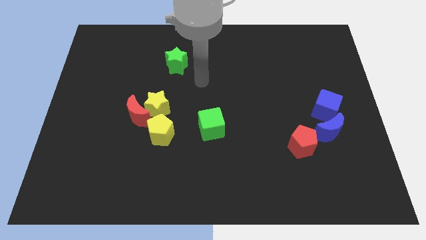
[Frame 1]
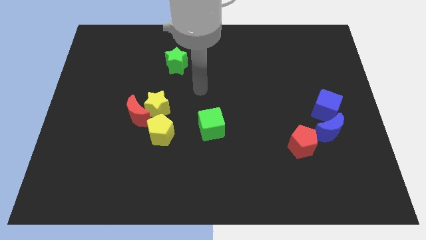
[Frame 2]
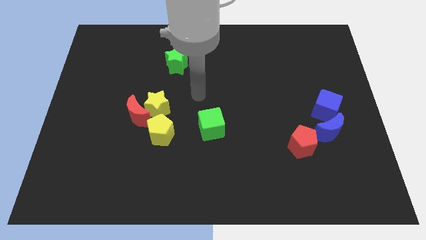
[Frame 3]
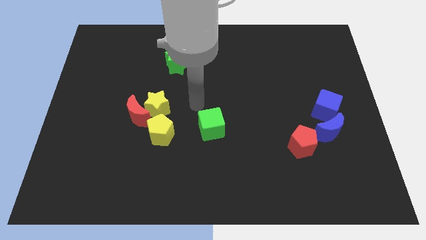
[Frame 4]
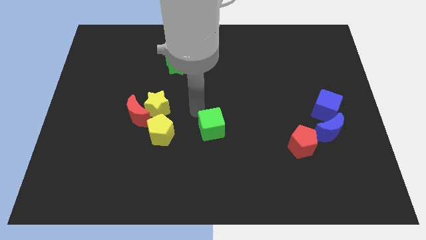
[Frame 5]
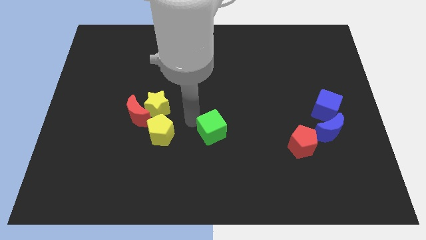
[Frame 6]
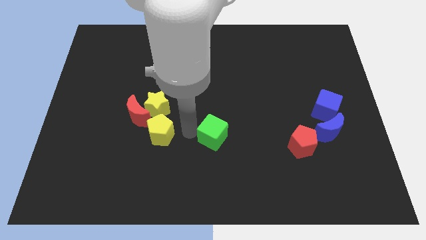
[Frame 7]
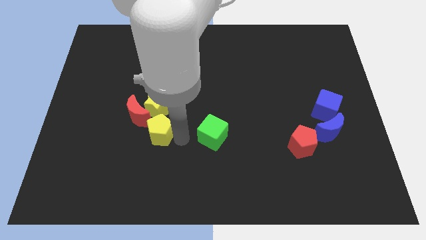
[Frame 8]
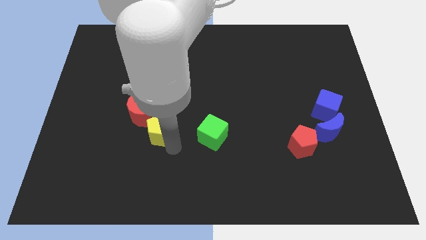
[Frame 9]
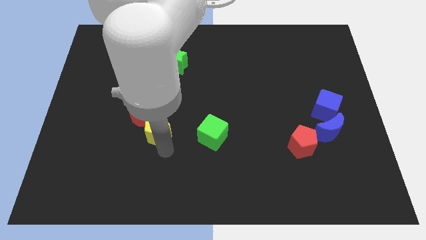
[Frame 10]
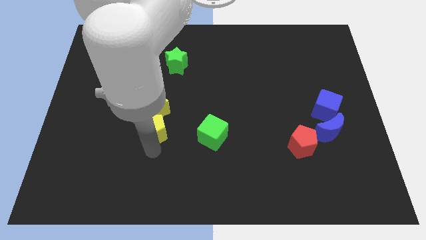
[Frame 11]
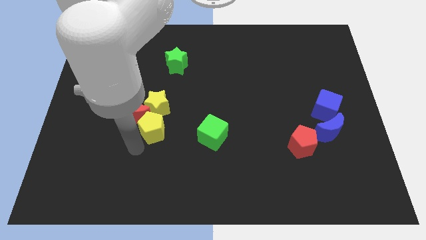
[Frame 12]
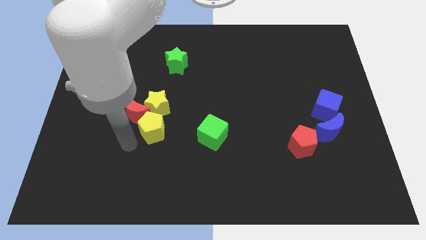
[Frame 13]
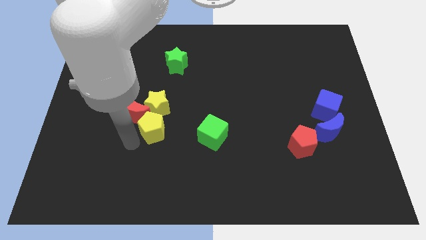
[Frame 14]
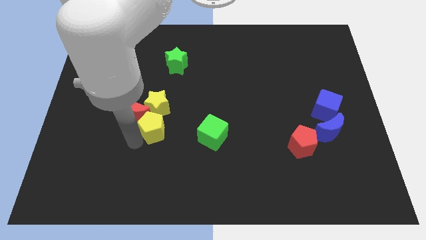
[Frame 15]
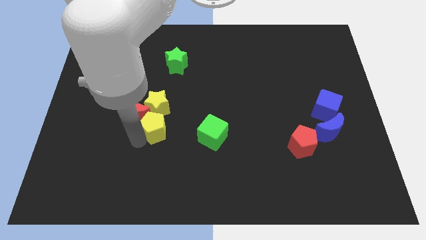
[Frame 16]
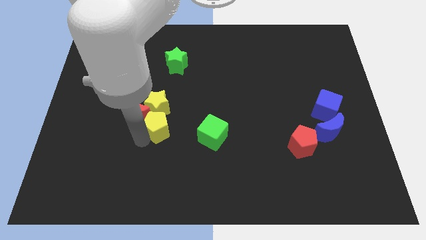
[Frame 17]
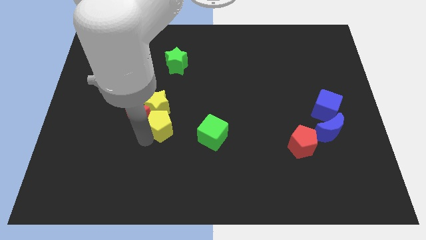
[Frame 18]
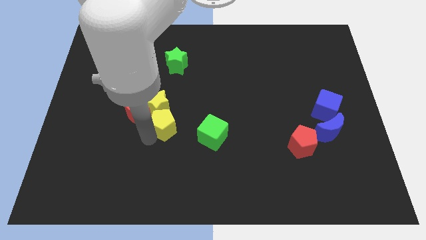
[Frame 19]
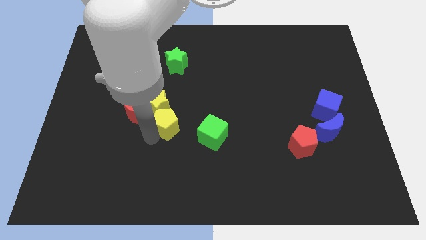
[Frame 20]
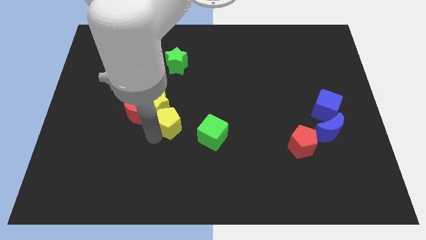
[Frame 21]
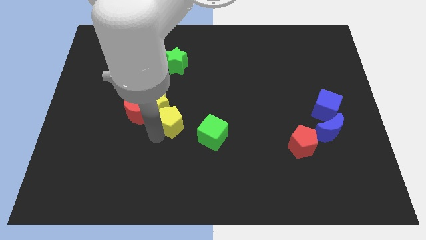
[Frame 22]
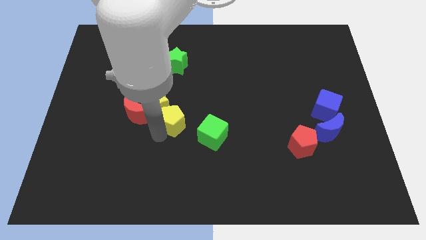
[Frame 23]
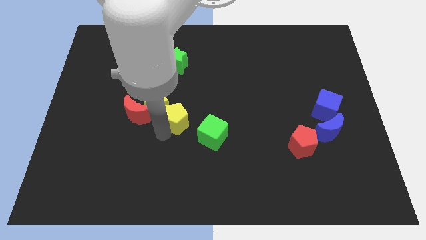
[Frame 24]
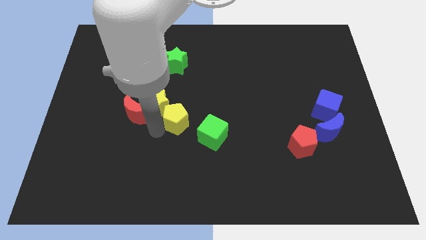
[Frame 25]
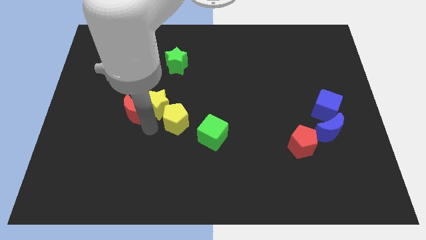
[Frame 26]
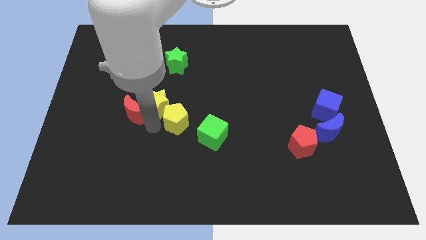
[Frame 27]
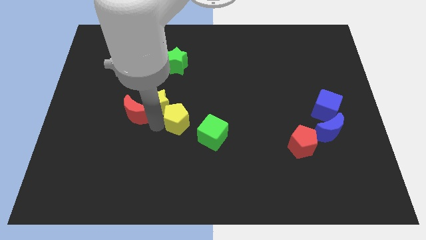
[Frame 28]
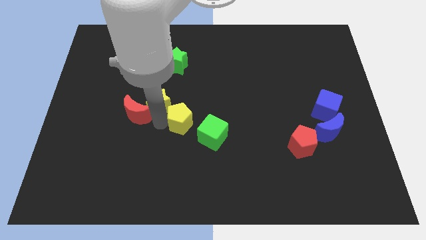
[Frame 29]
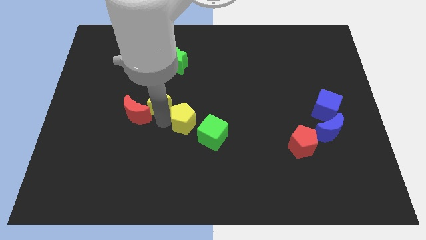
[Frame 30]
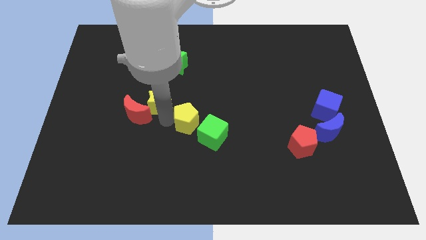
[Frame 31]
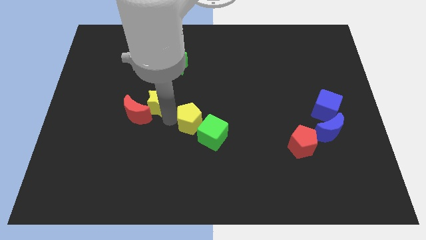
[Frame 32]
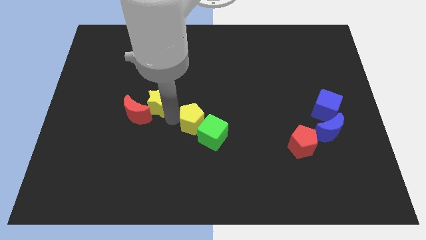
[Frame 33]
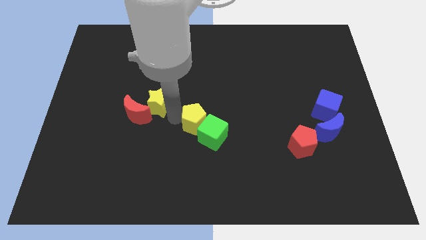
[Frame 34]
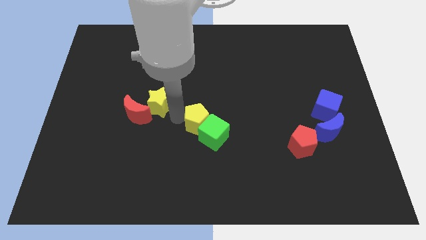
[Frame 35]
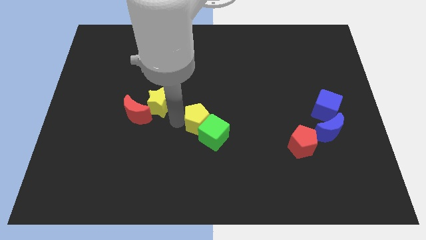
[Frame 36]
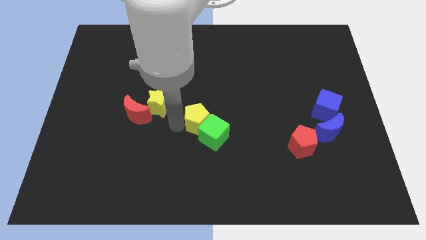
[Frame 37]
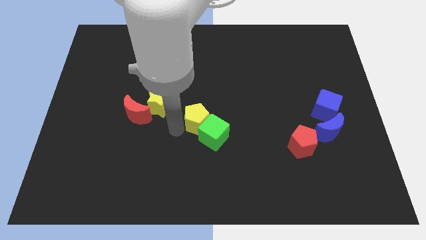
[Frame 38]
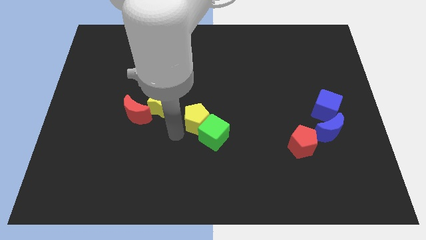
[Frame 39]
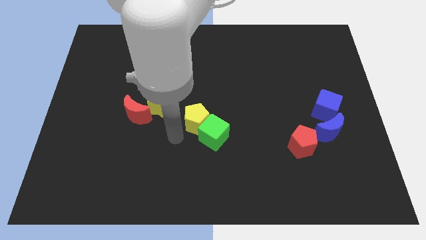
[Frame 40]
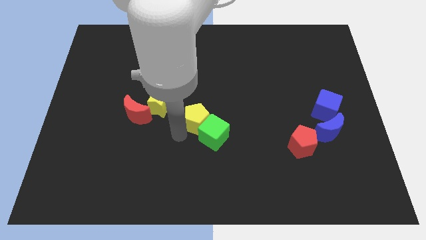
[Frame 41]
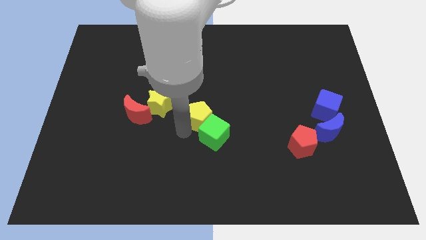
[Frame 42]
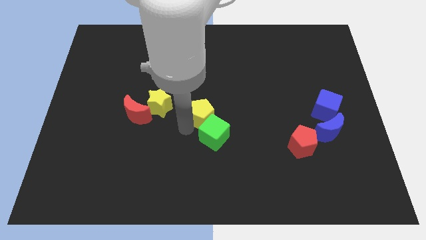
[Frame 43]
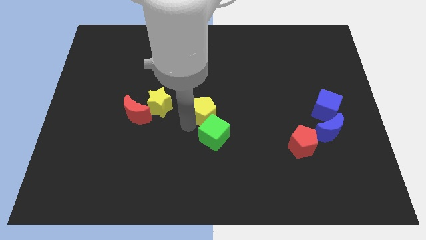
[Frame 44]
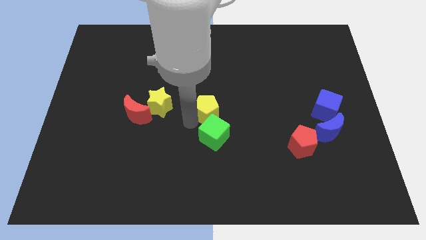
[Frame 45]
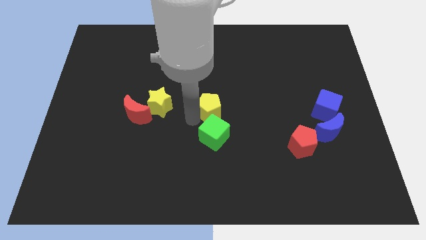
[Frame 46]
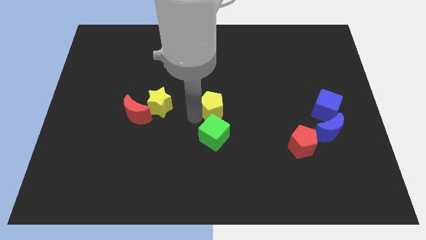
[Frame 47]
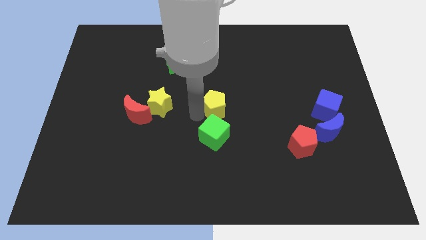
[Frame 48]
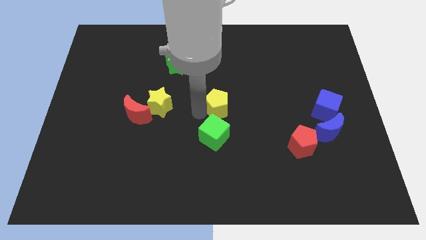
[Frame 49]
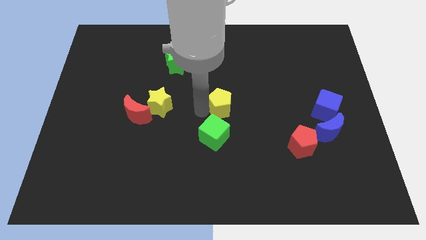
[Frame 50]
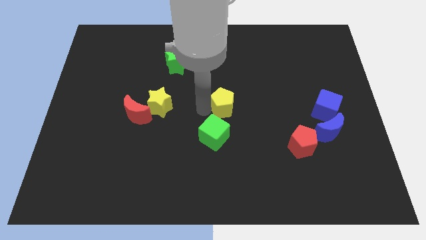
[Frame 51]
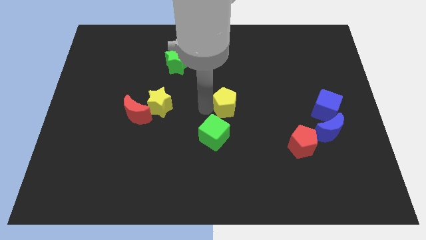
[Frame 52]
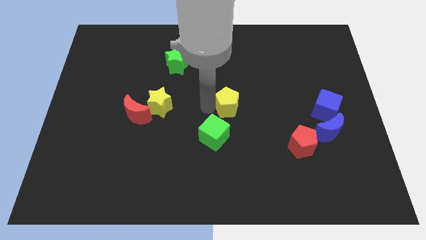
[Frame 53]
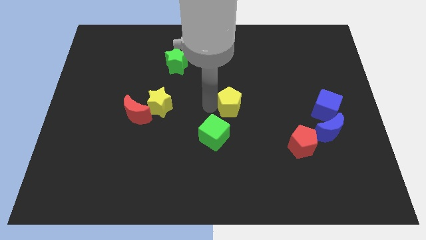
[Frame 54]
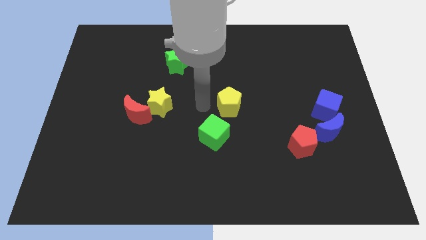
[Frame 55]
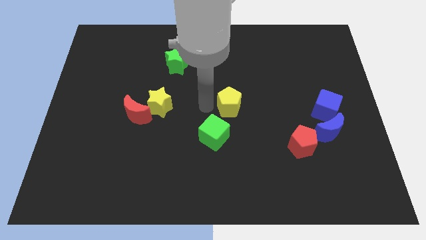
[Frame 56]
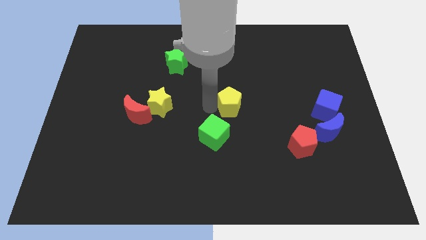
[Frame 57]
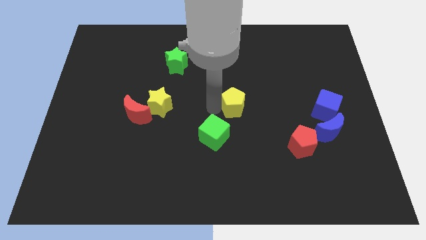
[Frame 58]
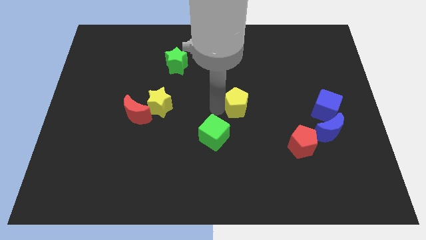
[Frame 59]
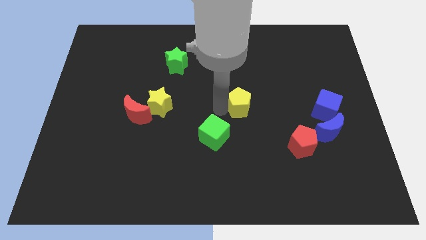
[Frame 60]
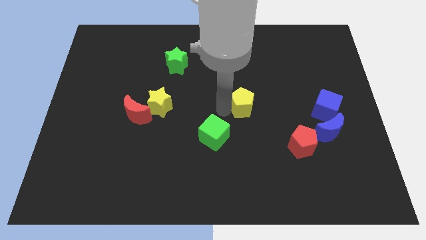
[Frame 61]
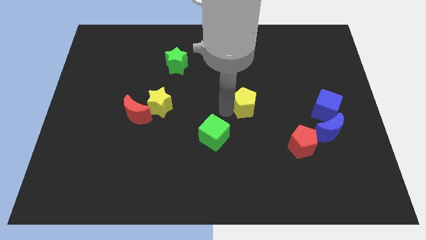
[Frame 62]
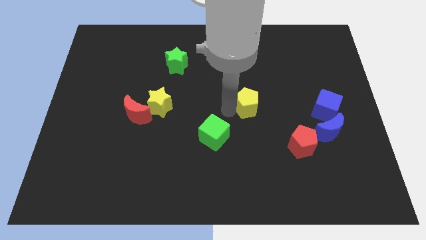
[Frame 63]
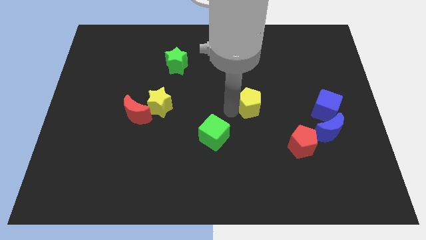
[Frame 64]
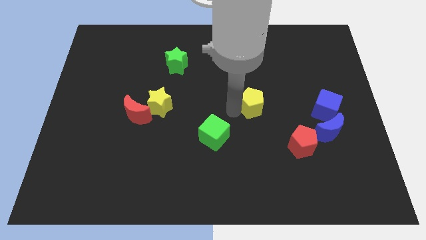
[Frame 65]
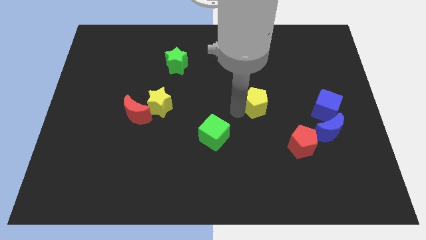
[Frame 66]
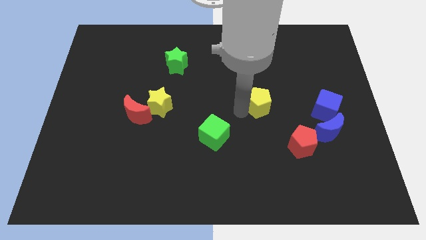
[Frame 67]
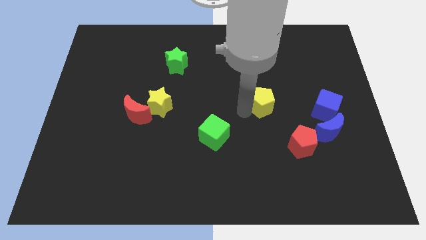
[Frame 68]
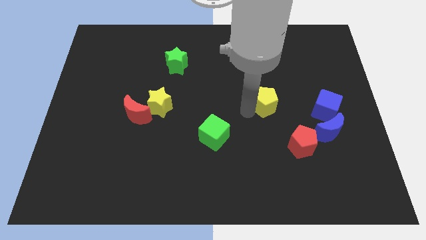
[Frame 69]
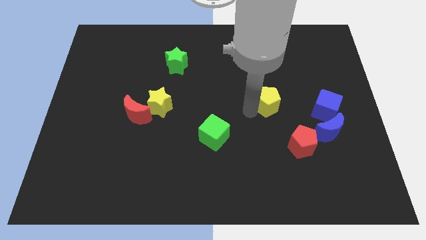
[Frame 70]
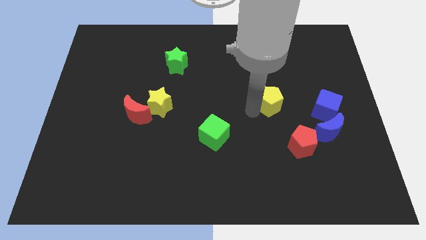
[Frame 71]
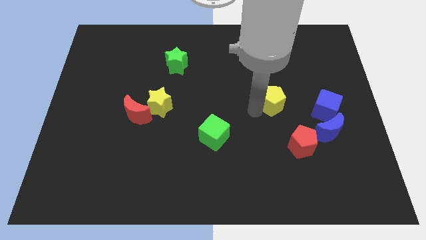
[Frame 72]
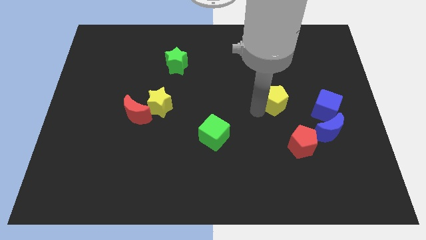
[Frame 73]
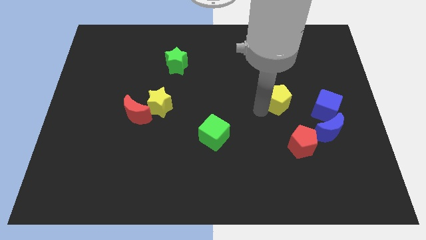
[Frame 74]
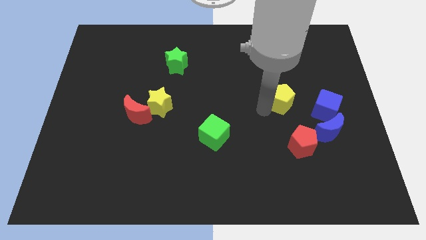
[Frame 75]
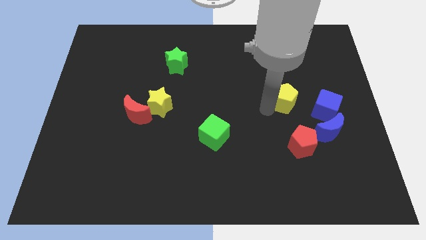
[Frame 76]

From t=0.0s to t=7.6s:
slide the yellow pentagon to the top left of the blue cube

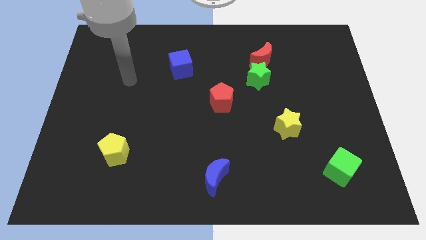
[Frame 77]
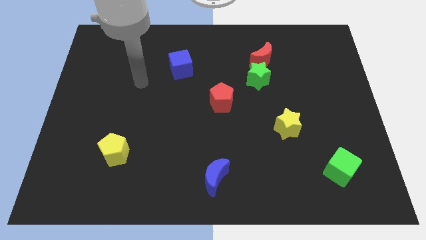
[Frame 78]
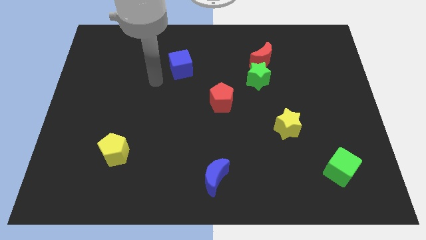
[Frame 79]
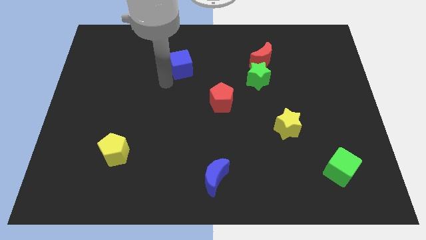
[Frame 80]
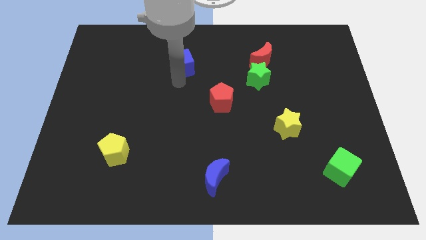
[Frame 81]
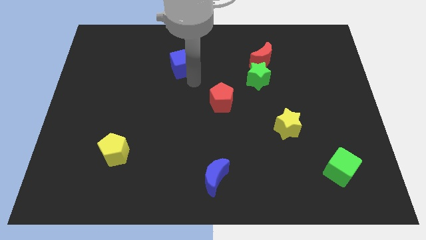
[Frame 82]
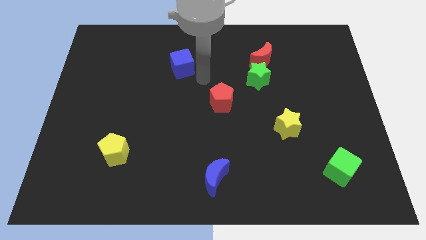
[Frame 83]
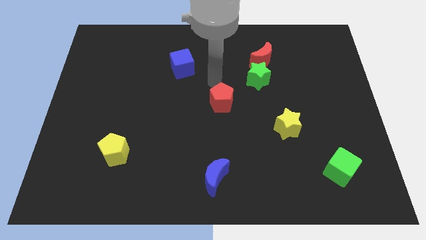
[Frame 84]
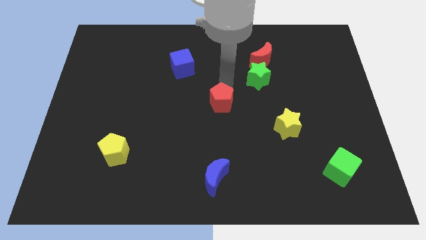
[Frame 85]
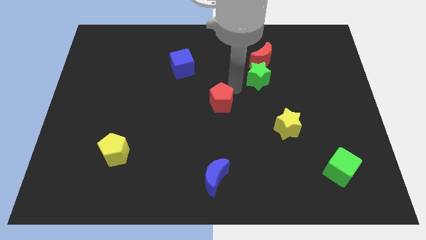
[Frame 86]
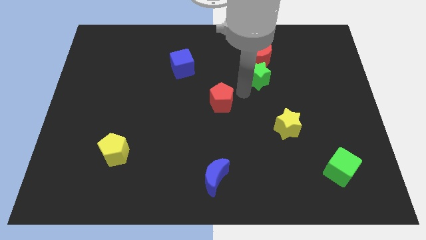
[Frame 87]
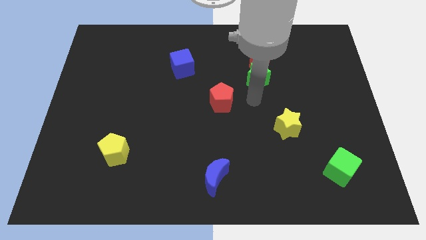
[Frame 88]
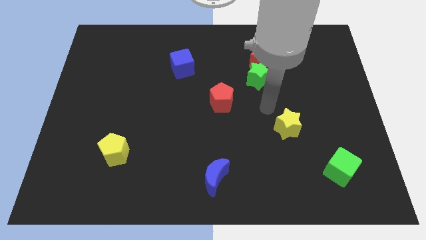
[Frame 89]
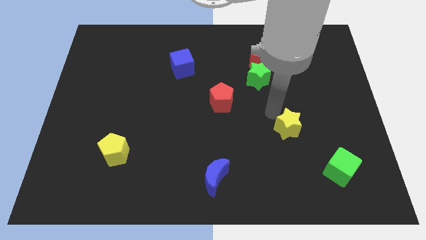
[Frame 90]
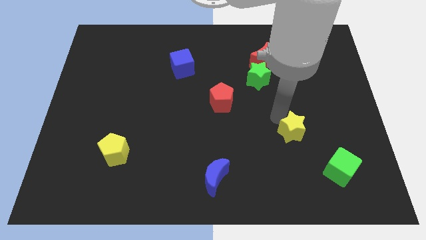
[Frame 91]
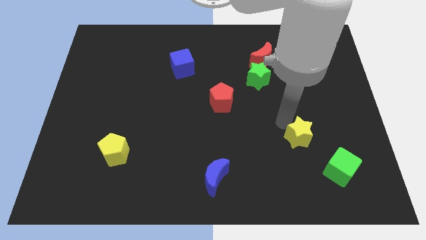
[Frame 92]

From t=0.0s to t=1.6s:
move the yellow star to the top left of the green cube
